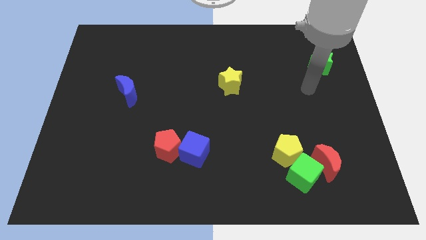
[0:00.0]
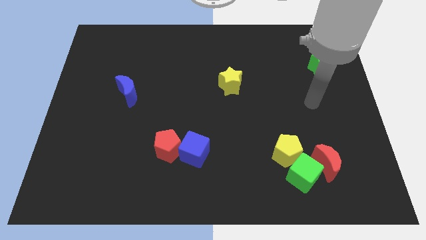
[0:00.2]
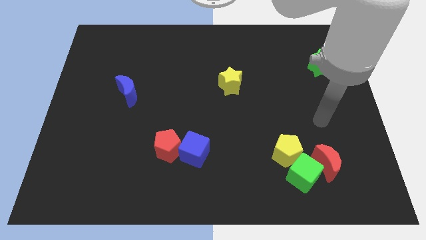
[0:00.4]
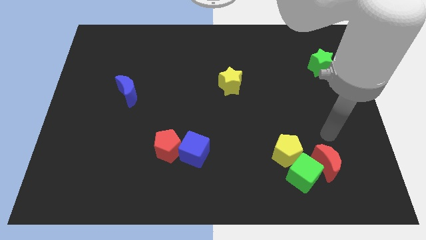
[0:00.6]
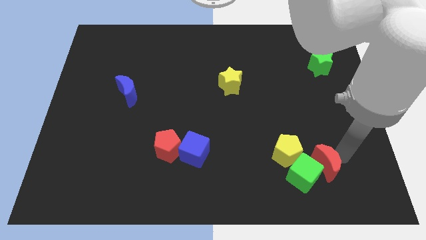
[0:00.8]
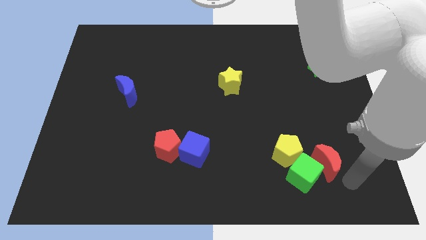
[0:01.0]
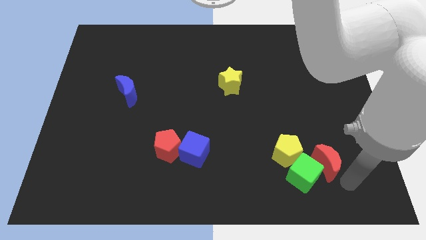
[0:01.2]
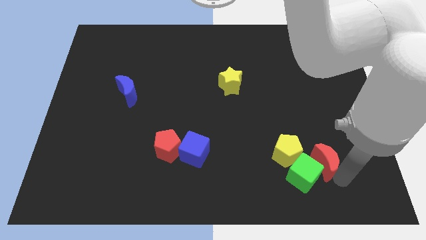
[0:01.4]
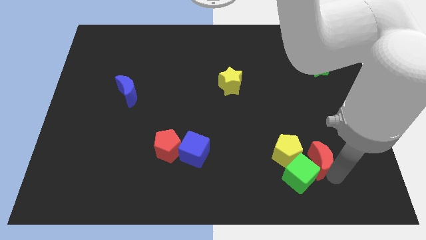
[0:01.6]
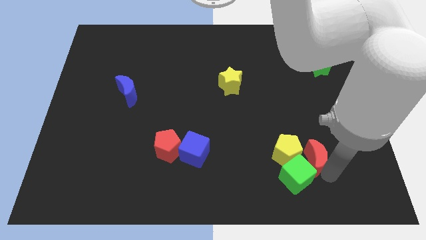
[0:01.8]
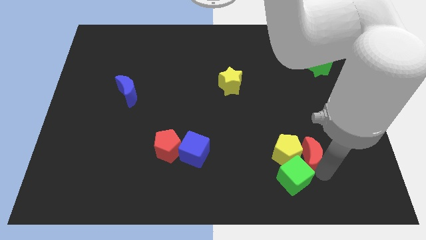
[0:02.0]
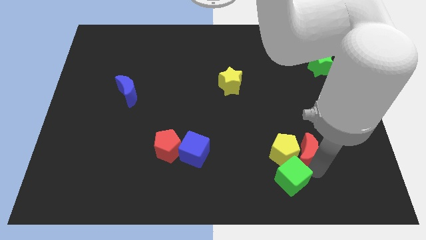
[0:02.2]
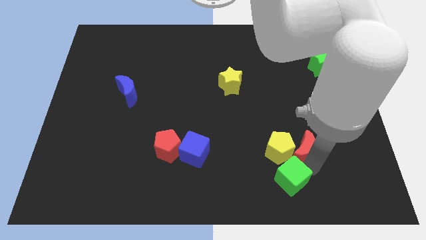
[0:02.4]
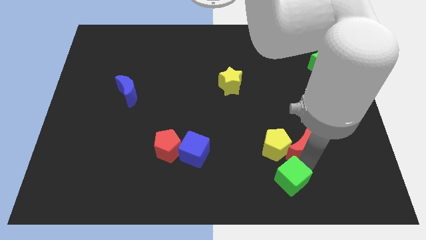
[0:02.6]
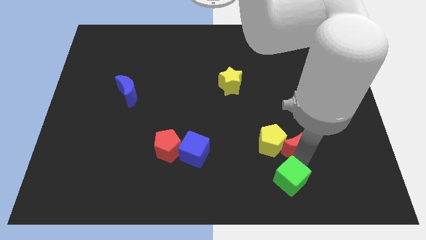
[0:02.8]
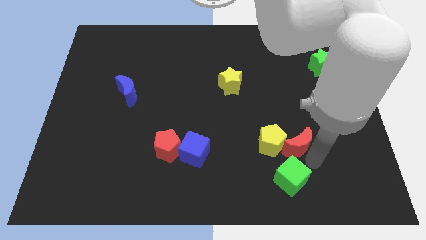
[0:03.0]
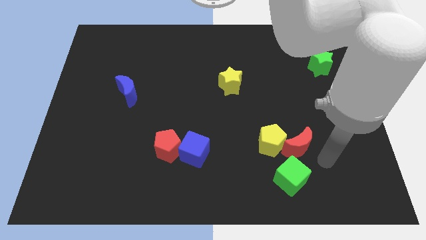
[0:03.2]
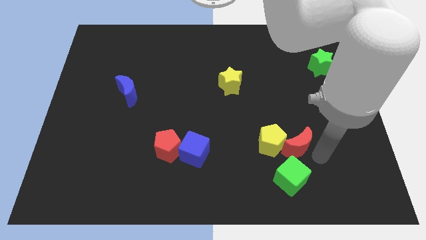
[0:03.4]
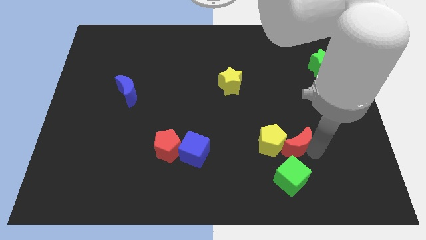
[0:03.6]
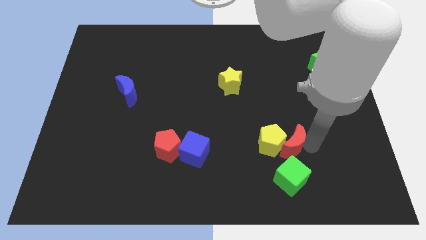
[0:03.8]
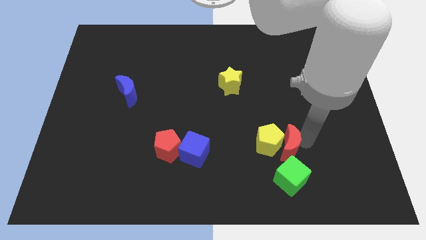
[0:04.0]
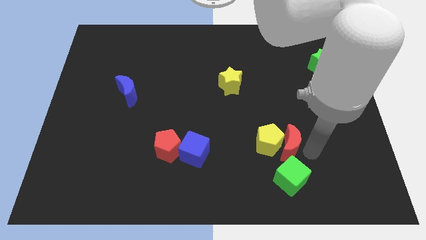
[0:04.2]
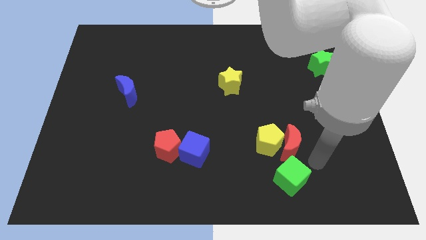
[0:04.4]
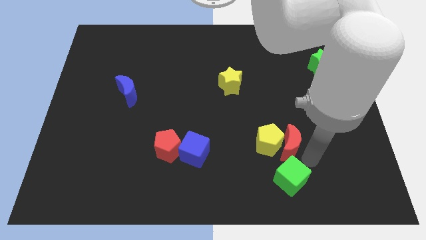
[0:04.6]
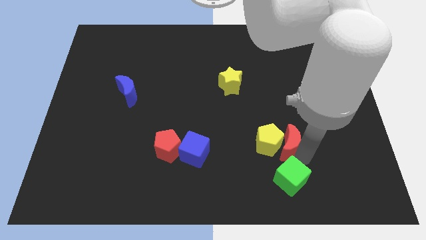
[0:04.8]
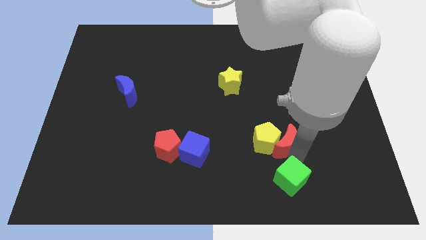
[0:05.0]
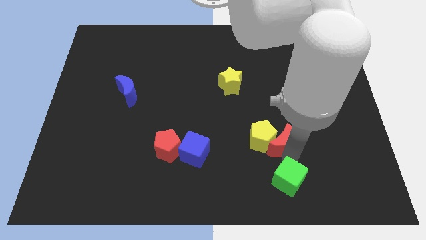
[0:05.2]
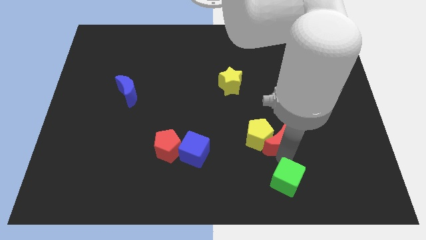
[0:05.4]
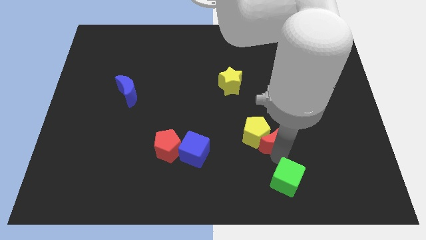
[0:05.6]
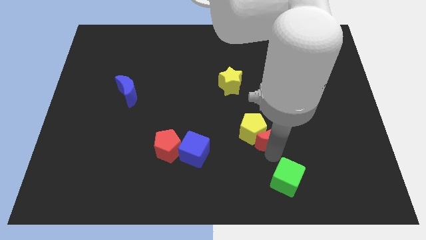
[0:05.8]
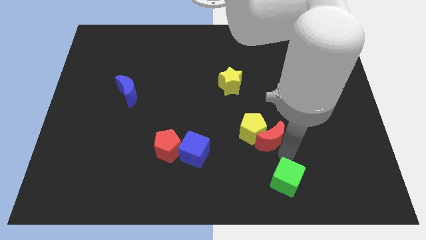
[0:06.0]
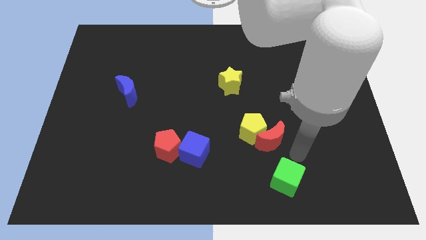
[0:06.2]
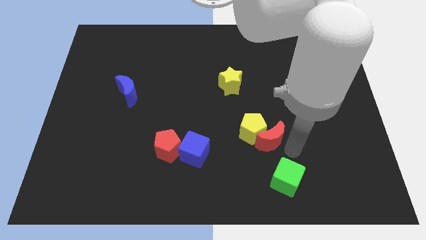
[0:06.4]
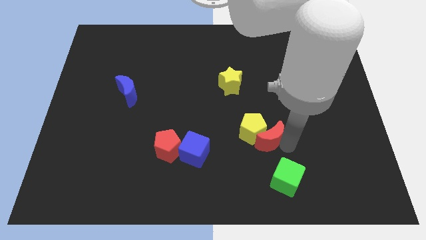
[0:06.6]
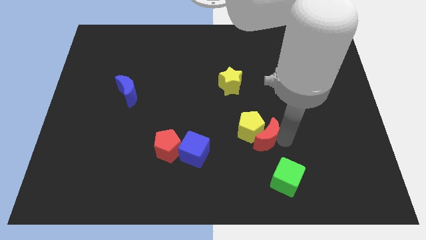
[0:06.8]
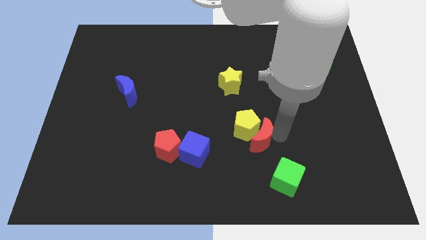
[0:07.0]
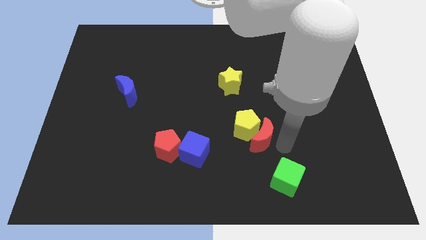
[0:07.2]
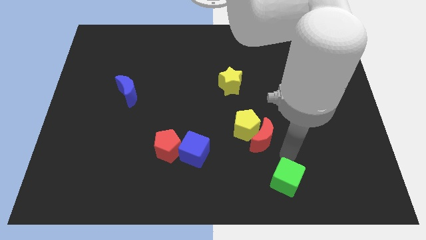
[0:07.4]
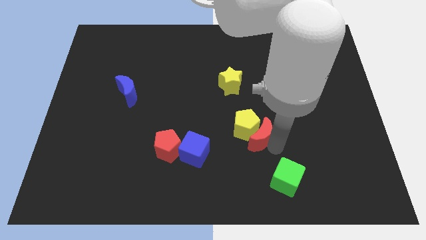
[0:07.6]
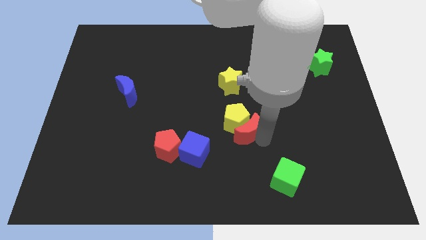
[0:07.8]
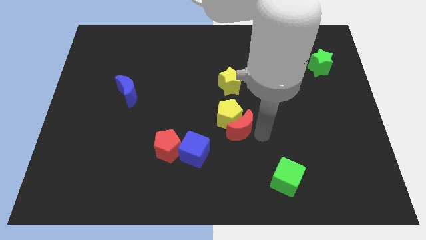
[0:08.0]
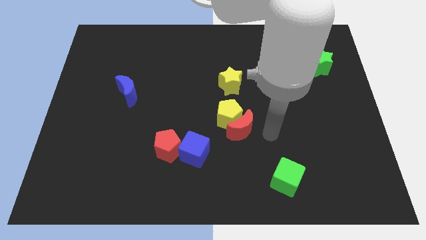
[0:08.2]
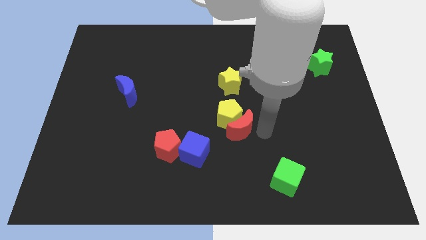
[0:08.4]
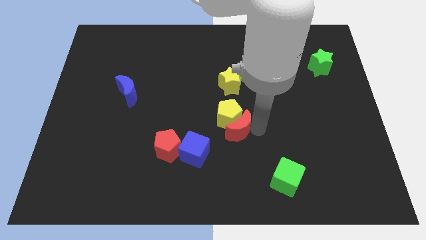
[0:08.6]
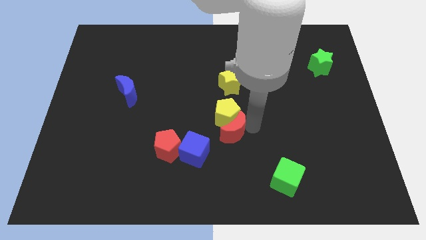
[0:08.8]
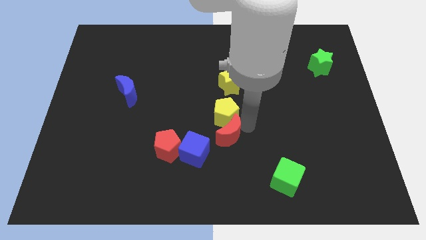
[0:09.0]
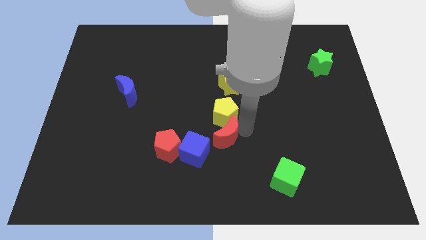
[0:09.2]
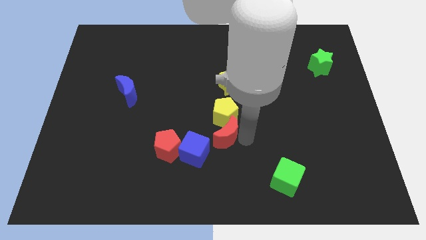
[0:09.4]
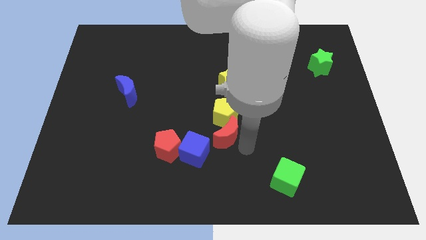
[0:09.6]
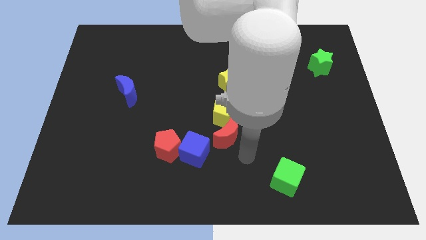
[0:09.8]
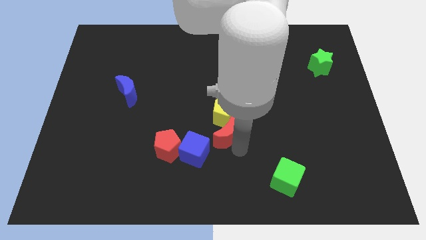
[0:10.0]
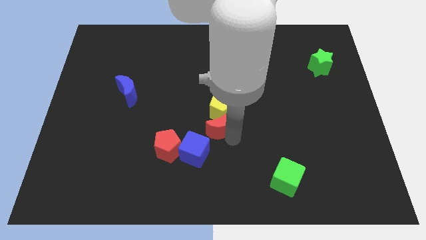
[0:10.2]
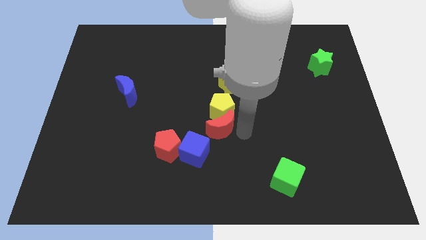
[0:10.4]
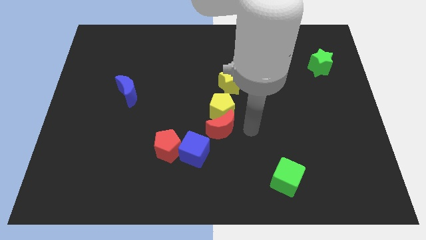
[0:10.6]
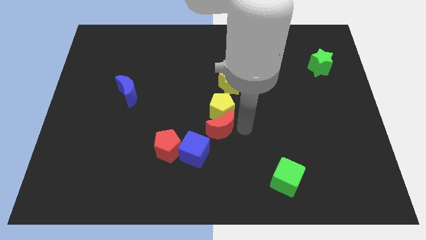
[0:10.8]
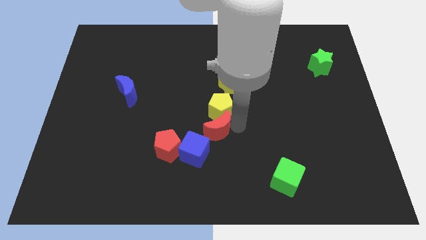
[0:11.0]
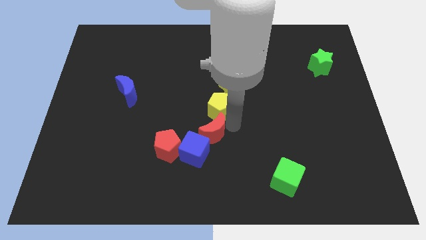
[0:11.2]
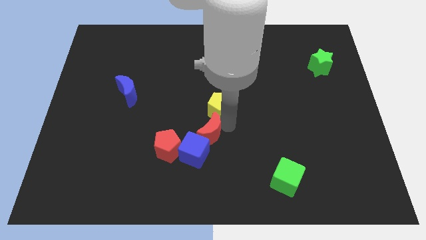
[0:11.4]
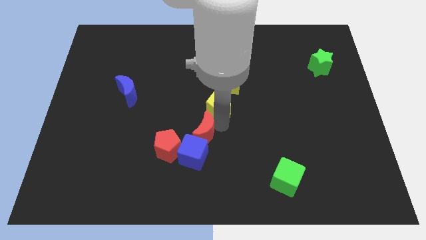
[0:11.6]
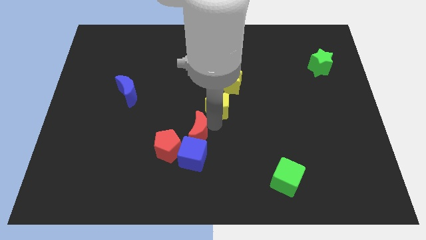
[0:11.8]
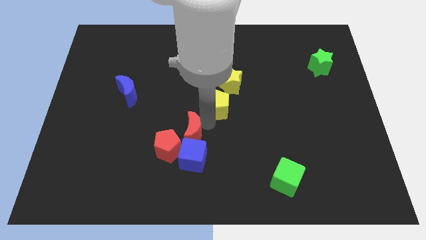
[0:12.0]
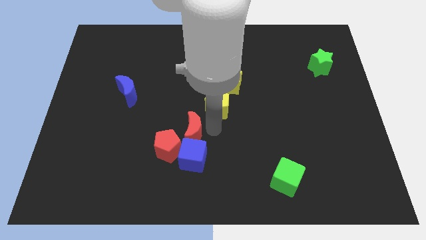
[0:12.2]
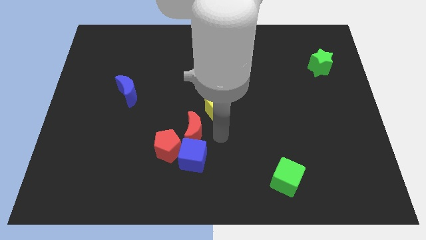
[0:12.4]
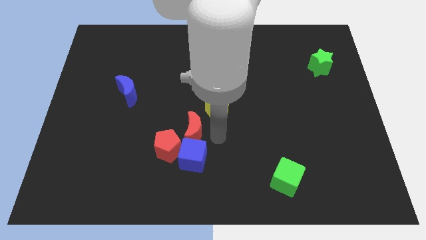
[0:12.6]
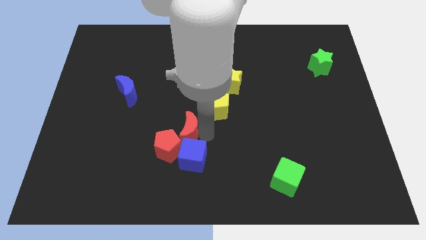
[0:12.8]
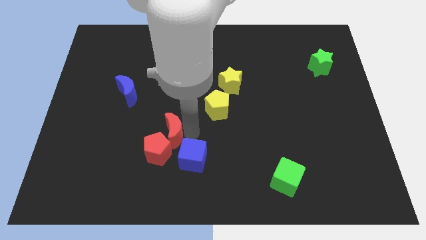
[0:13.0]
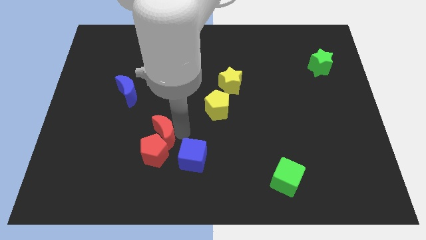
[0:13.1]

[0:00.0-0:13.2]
push the red moon to the top left side of the red pentagon
